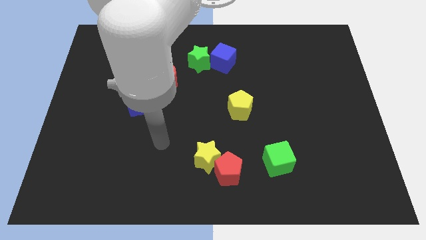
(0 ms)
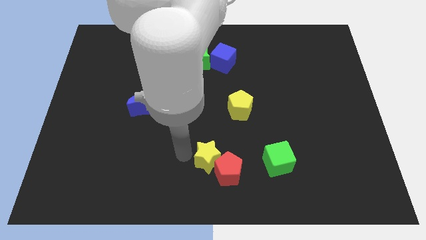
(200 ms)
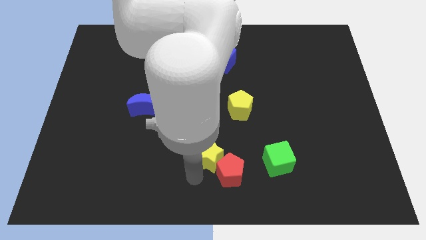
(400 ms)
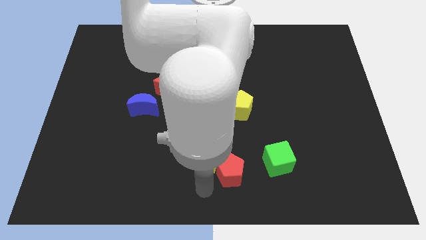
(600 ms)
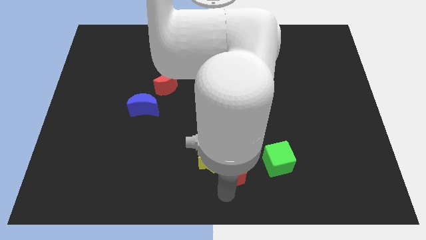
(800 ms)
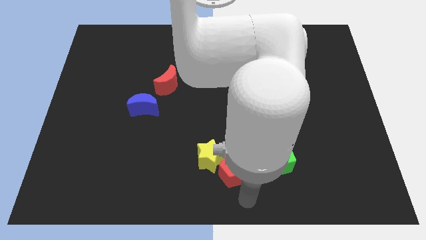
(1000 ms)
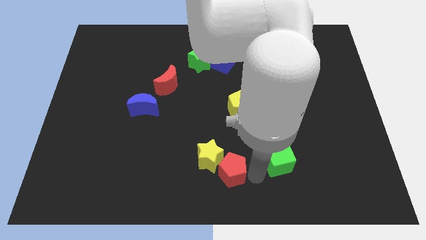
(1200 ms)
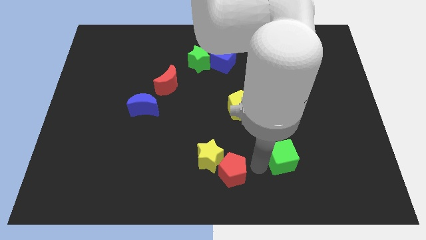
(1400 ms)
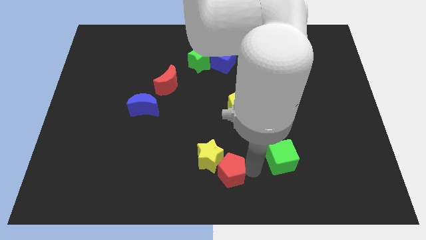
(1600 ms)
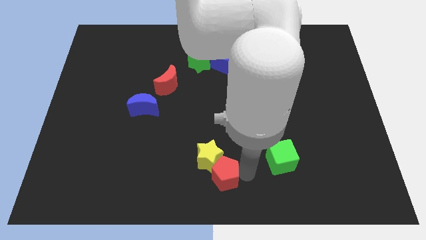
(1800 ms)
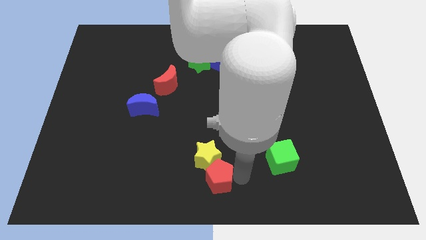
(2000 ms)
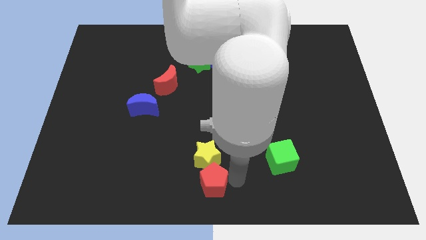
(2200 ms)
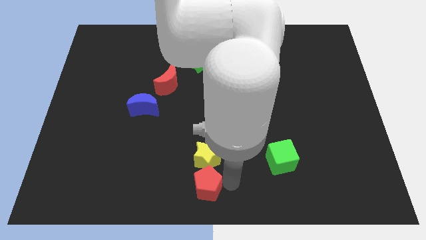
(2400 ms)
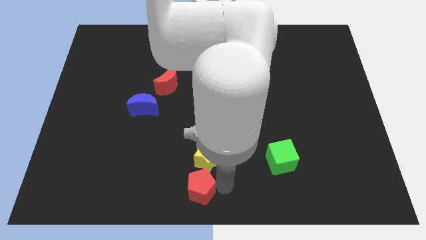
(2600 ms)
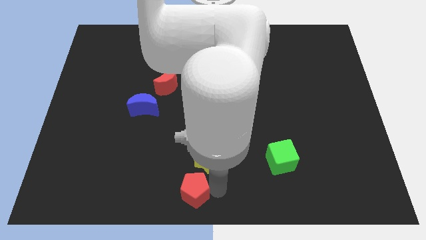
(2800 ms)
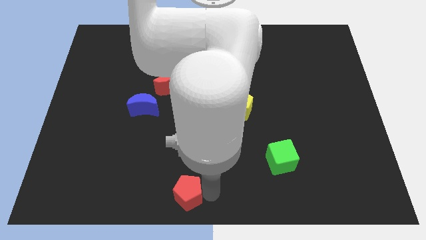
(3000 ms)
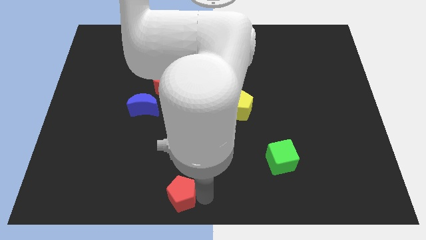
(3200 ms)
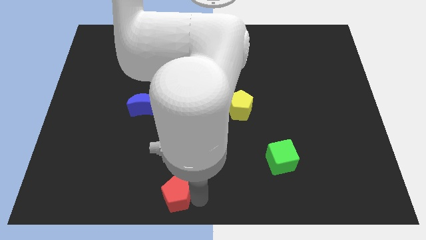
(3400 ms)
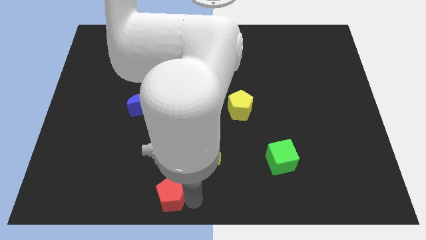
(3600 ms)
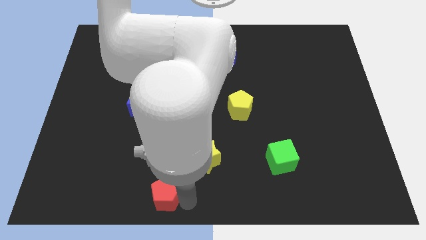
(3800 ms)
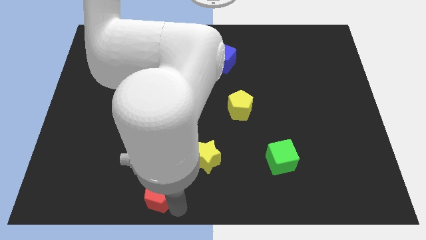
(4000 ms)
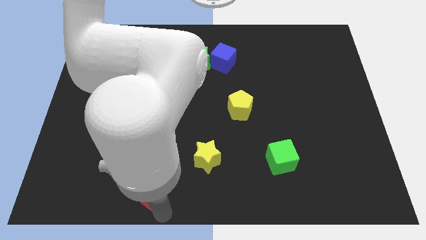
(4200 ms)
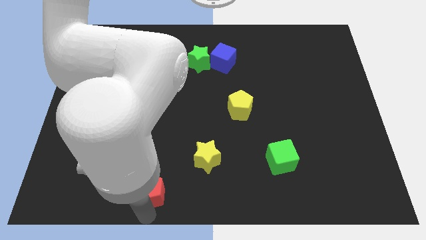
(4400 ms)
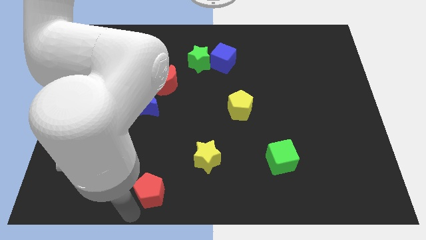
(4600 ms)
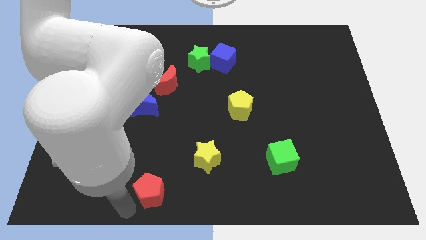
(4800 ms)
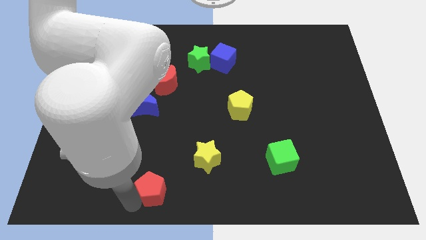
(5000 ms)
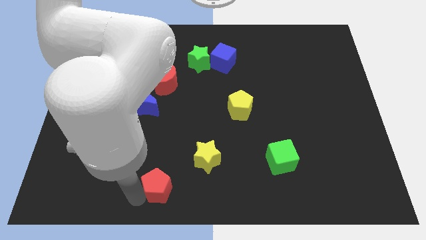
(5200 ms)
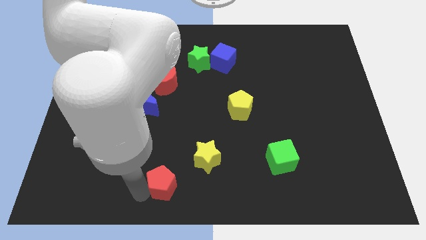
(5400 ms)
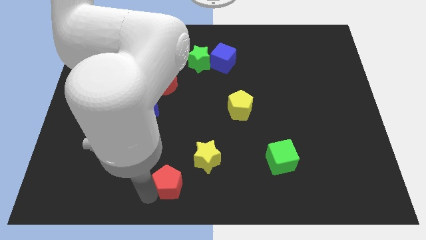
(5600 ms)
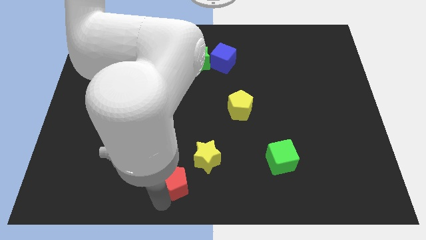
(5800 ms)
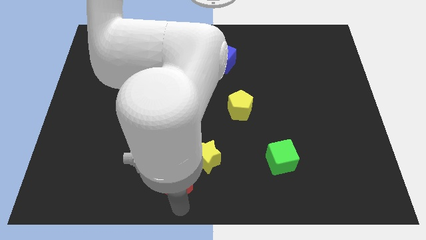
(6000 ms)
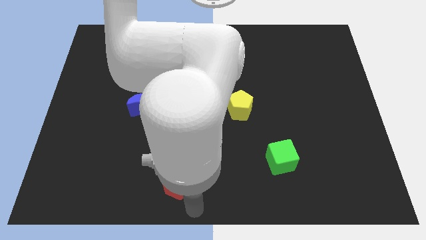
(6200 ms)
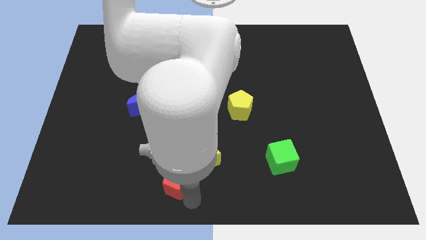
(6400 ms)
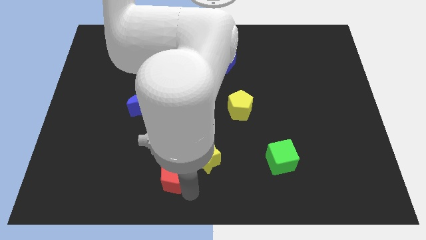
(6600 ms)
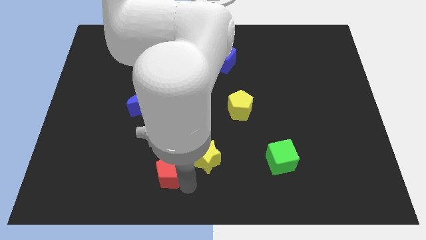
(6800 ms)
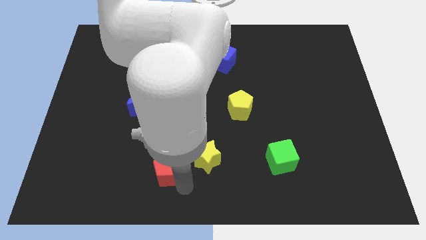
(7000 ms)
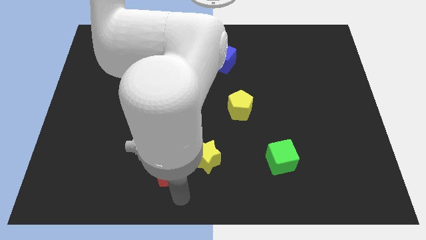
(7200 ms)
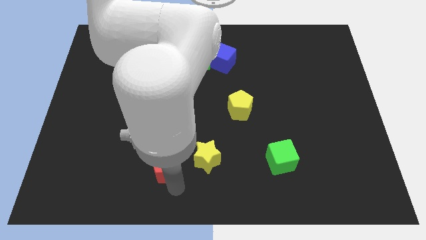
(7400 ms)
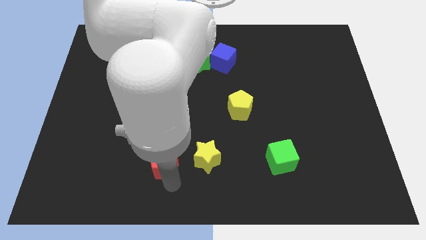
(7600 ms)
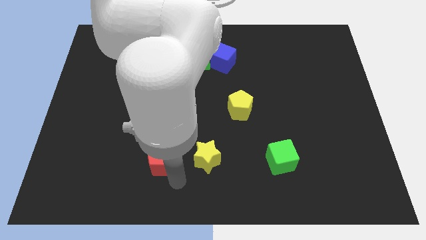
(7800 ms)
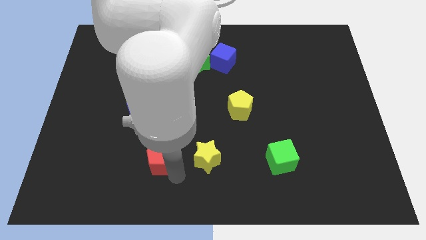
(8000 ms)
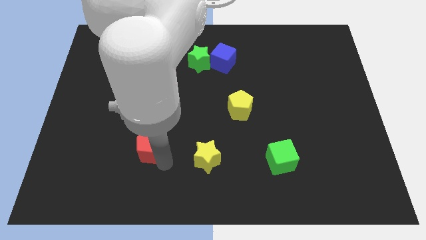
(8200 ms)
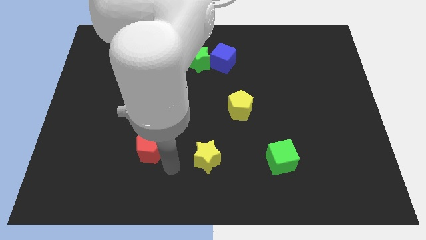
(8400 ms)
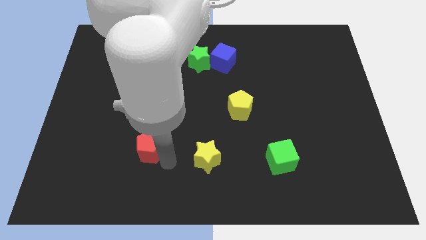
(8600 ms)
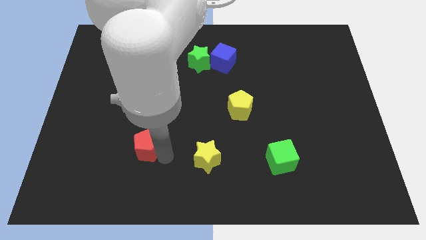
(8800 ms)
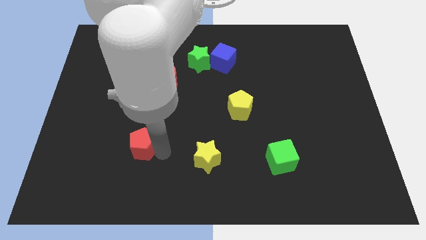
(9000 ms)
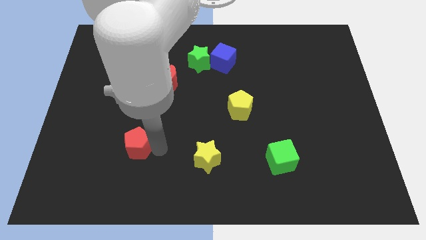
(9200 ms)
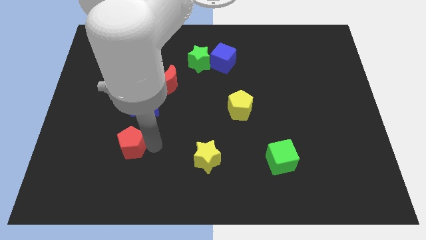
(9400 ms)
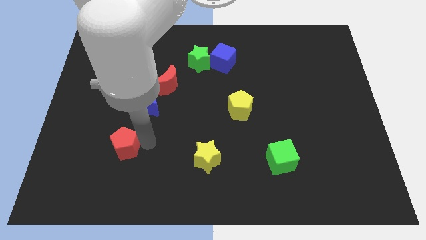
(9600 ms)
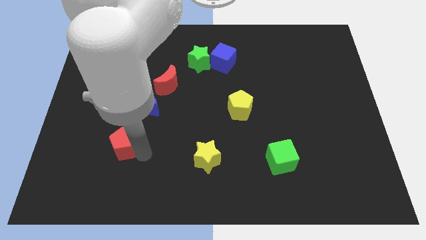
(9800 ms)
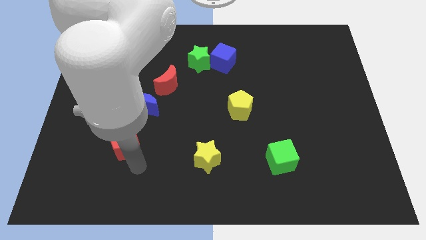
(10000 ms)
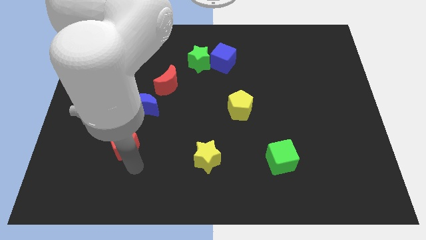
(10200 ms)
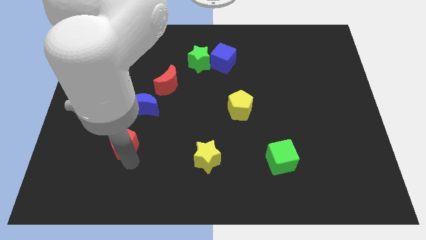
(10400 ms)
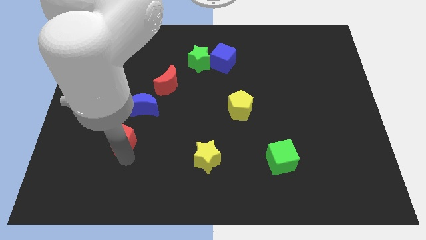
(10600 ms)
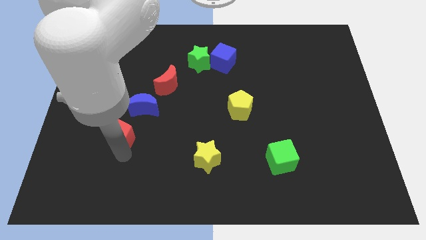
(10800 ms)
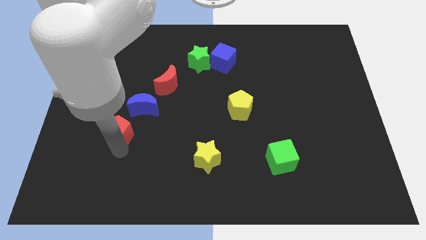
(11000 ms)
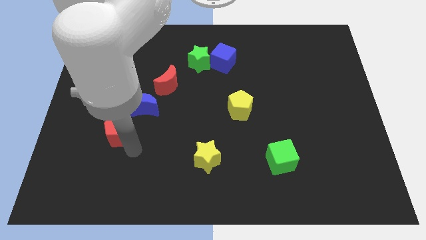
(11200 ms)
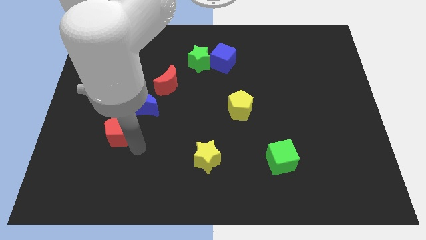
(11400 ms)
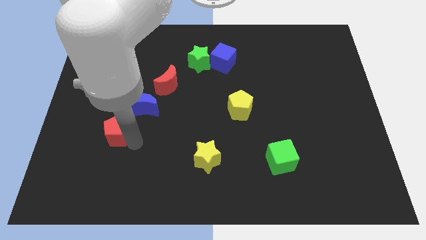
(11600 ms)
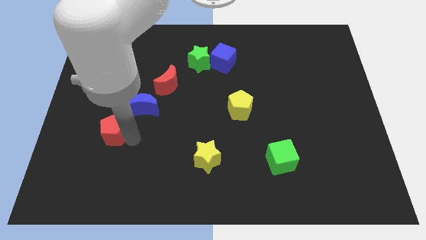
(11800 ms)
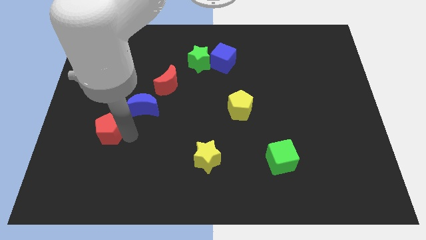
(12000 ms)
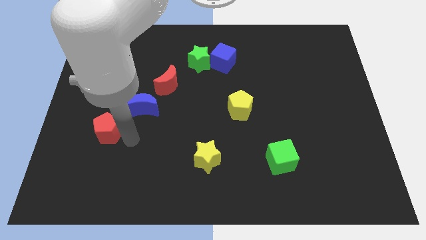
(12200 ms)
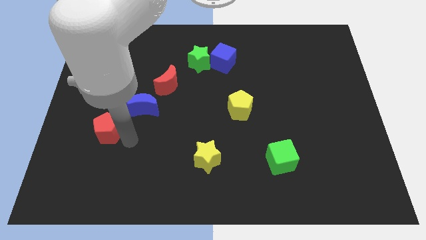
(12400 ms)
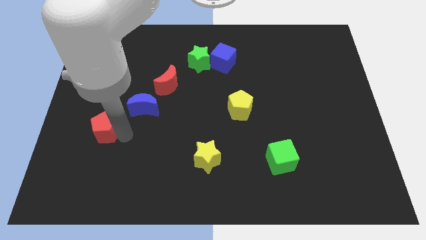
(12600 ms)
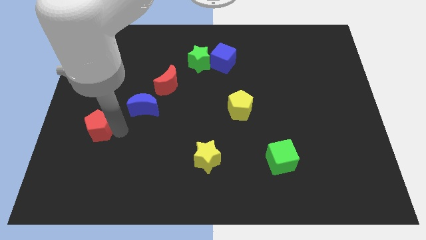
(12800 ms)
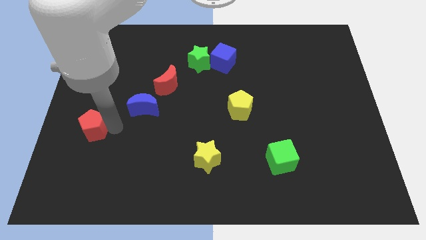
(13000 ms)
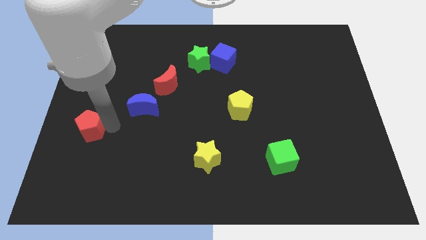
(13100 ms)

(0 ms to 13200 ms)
put the red pentagon to the left side
